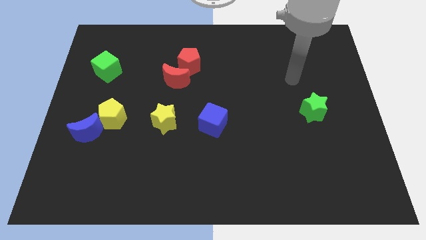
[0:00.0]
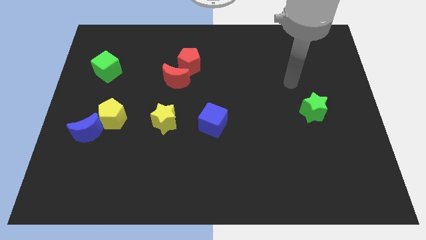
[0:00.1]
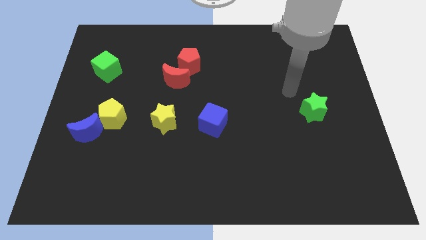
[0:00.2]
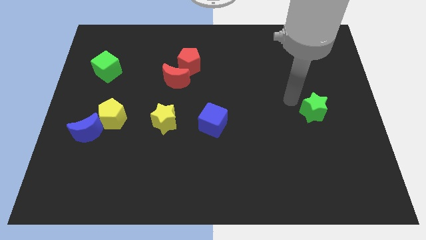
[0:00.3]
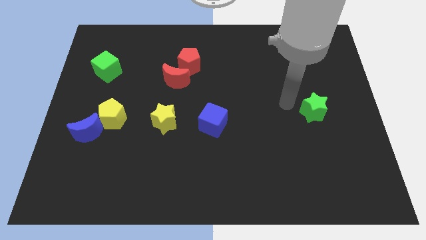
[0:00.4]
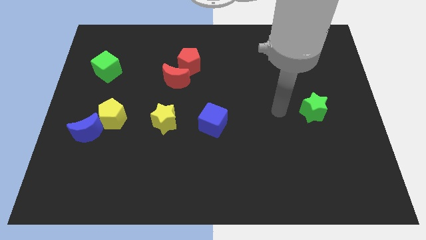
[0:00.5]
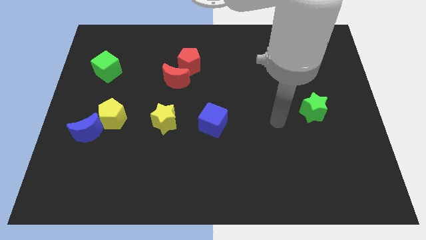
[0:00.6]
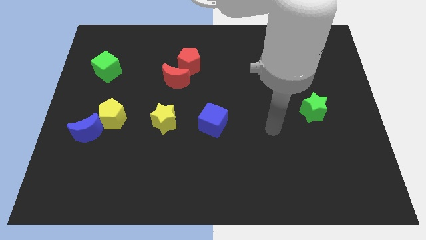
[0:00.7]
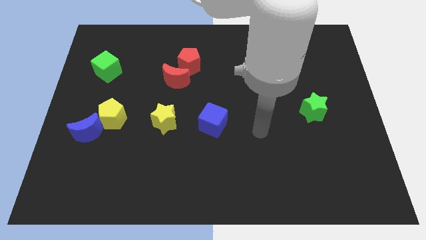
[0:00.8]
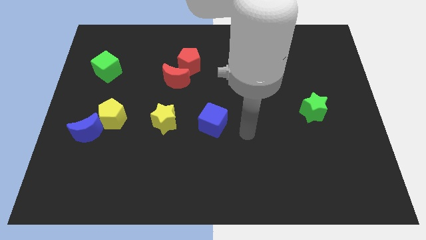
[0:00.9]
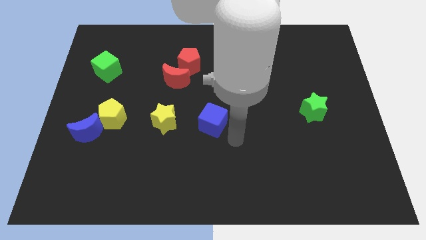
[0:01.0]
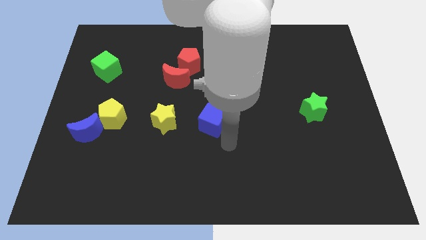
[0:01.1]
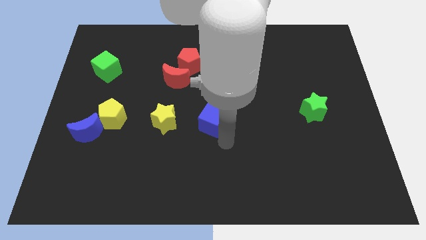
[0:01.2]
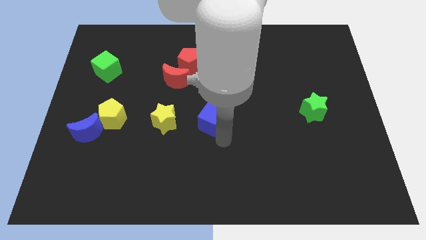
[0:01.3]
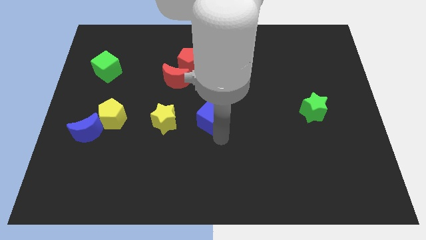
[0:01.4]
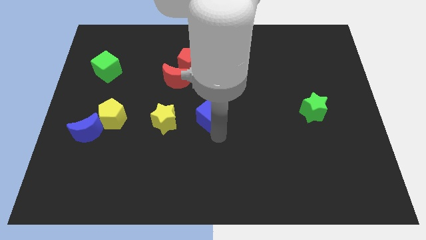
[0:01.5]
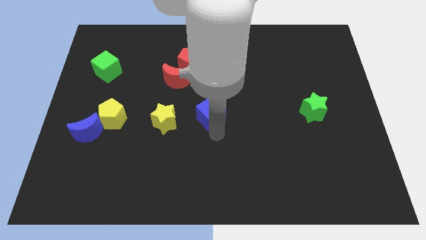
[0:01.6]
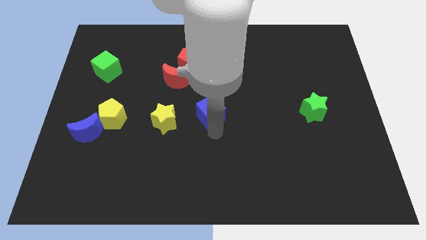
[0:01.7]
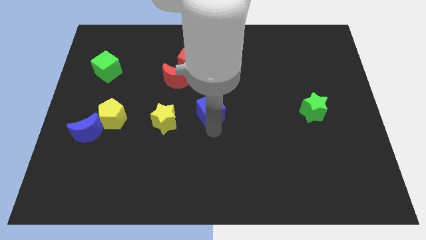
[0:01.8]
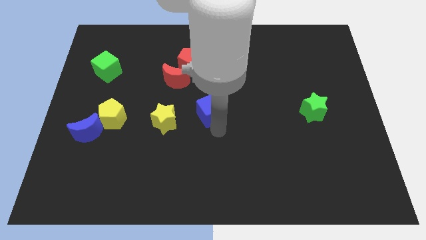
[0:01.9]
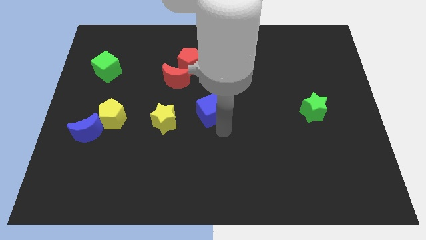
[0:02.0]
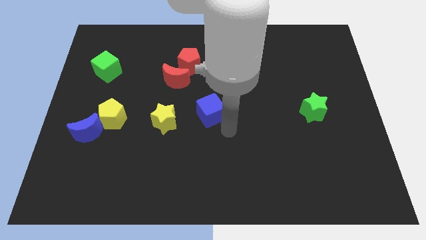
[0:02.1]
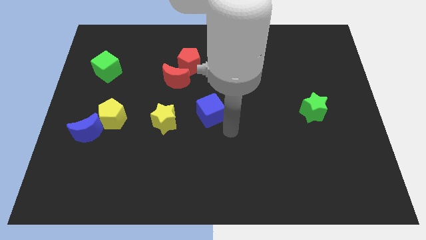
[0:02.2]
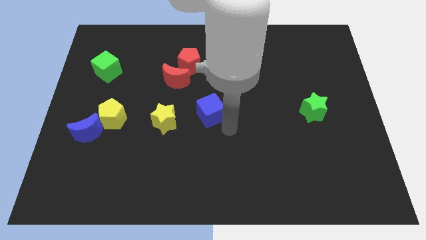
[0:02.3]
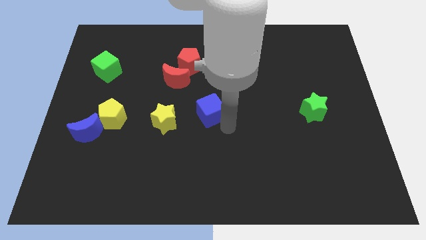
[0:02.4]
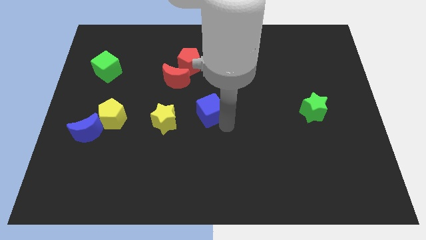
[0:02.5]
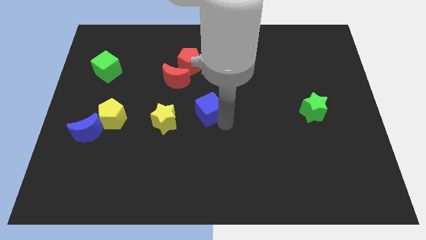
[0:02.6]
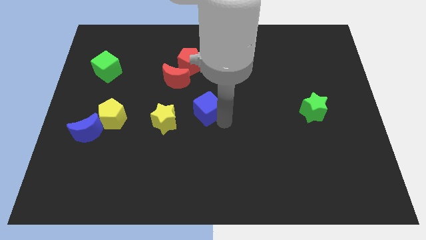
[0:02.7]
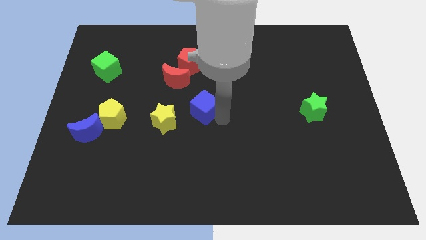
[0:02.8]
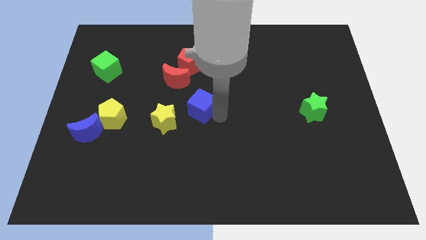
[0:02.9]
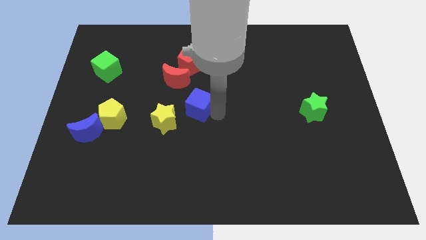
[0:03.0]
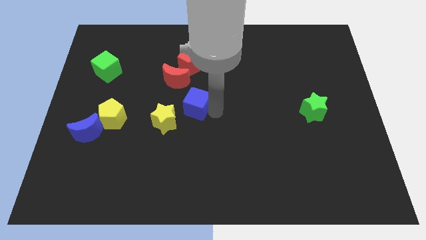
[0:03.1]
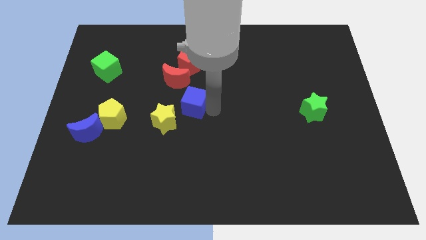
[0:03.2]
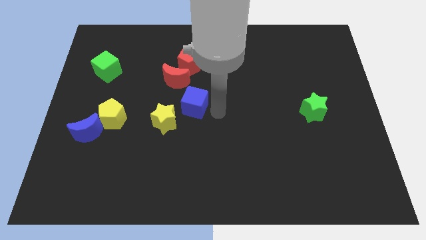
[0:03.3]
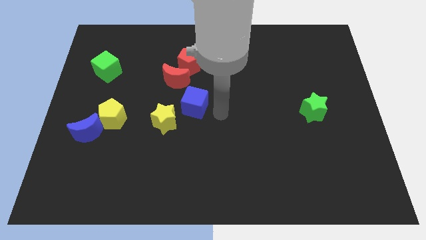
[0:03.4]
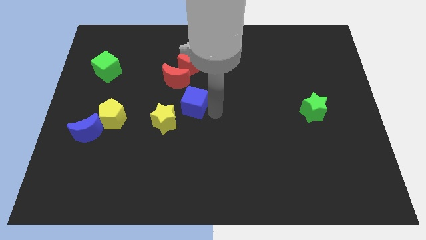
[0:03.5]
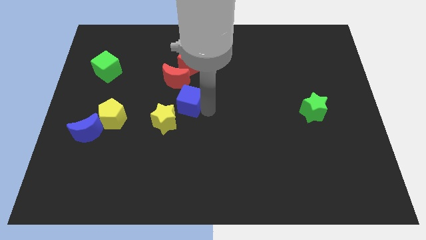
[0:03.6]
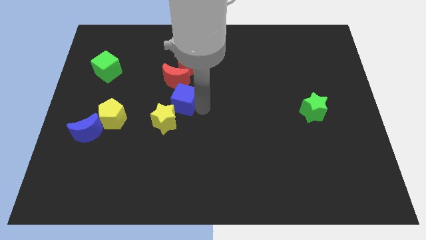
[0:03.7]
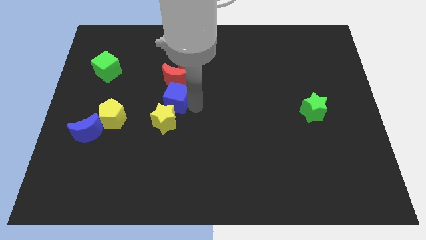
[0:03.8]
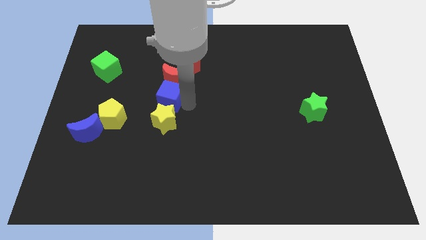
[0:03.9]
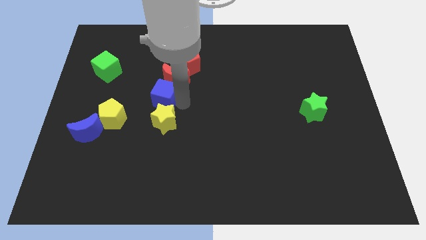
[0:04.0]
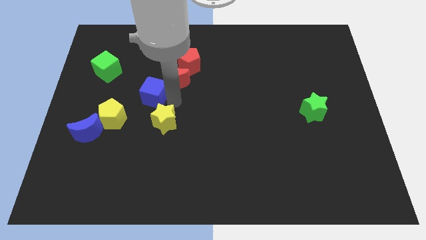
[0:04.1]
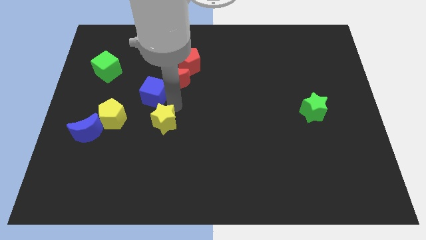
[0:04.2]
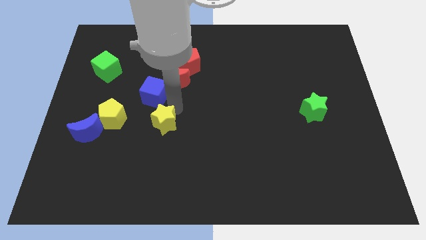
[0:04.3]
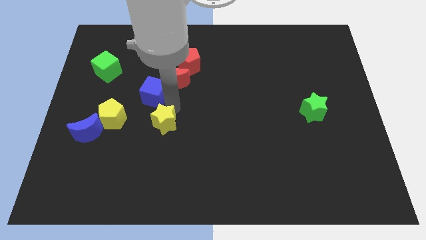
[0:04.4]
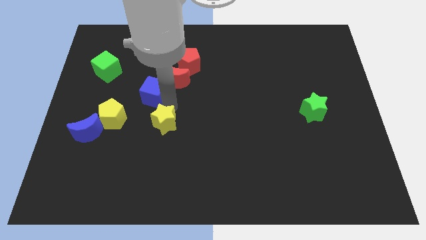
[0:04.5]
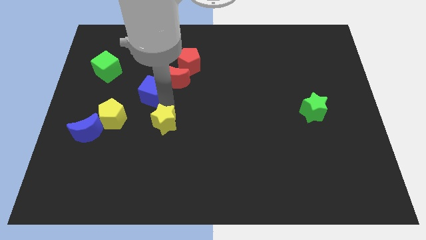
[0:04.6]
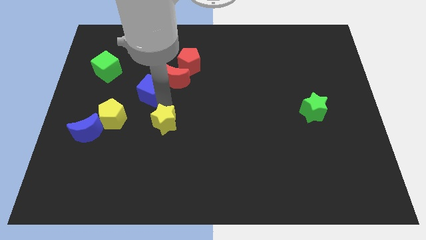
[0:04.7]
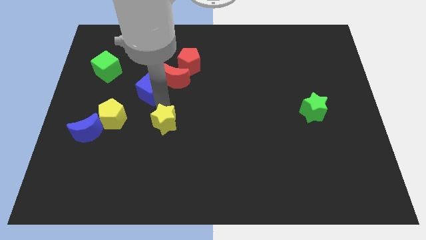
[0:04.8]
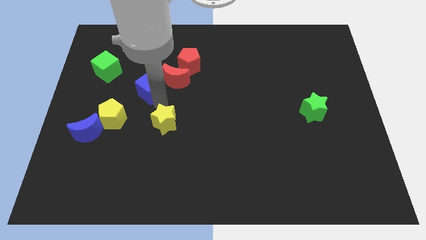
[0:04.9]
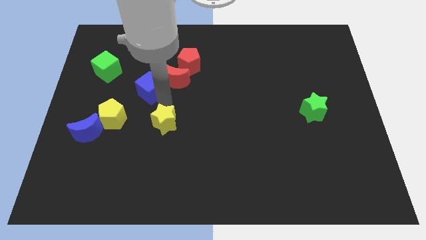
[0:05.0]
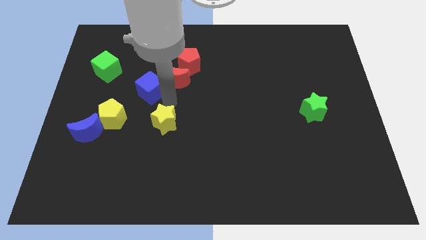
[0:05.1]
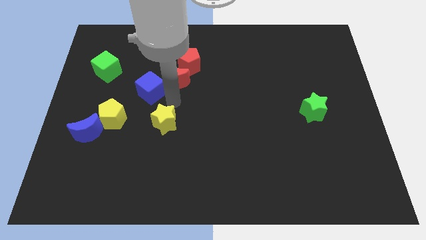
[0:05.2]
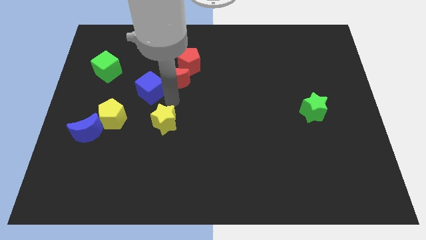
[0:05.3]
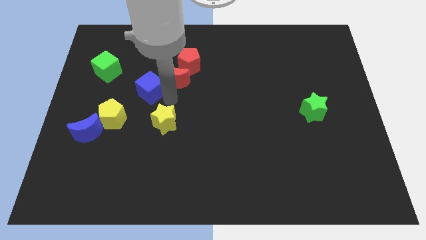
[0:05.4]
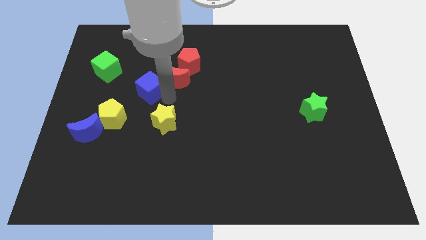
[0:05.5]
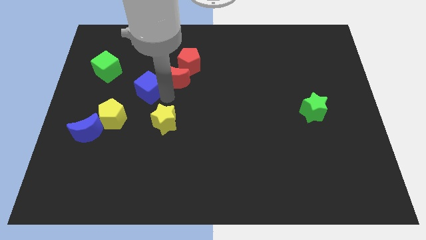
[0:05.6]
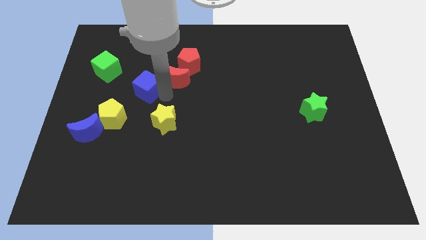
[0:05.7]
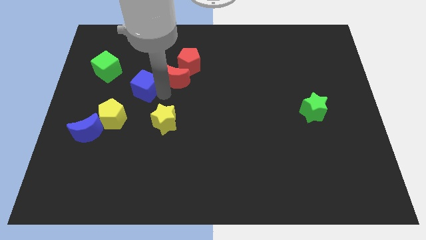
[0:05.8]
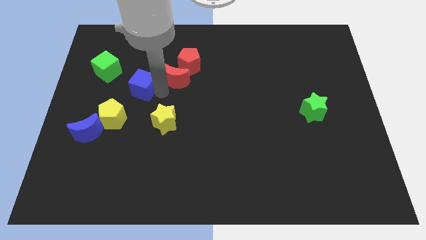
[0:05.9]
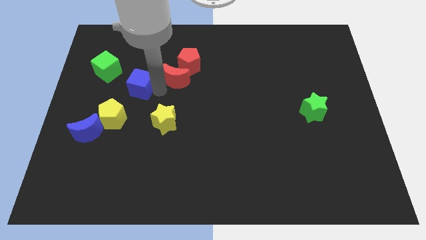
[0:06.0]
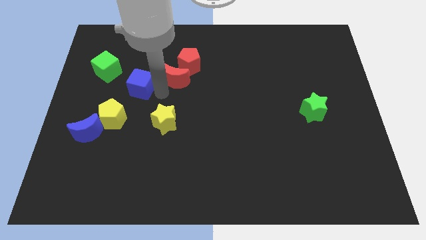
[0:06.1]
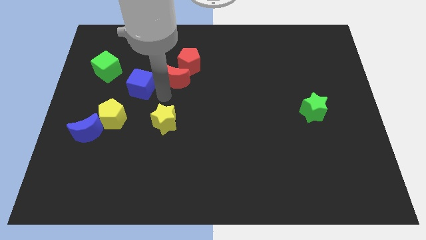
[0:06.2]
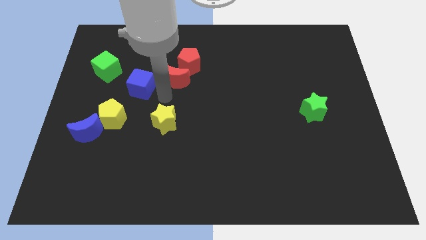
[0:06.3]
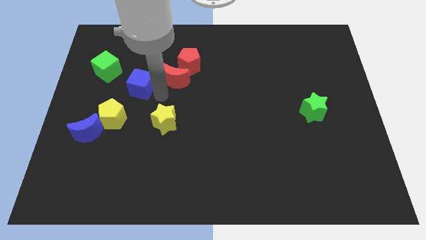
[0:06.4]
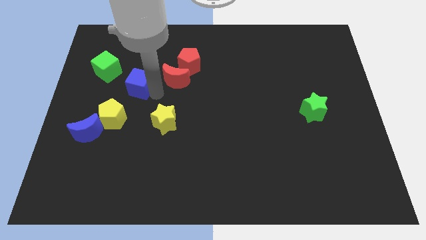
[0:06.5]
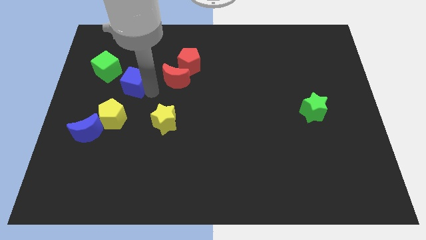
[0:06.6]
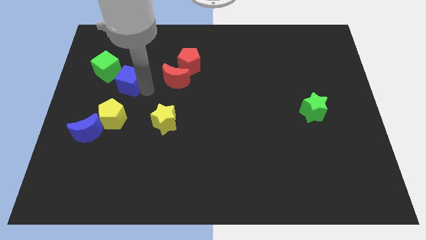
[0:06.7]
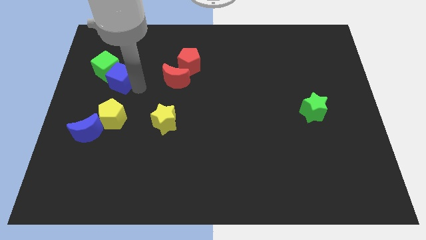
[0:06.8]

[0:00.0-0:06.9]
push the blue cube towards the green cube
